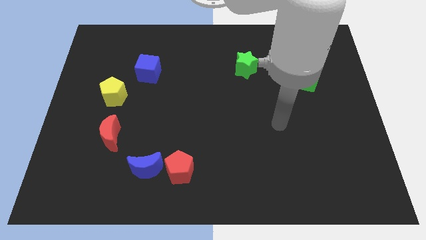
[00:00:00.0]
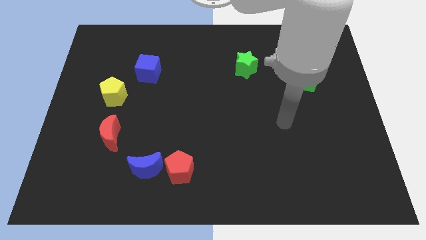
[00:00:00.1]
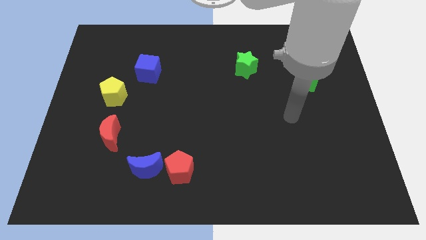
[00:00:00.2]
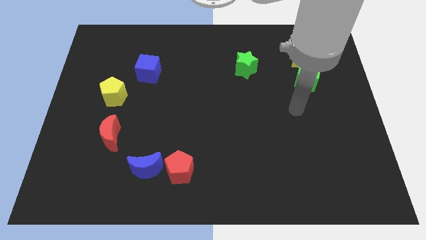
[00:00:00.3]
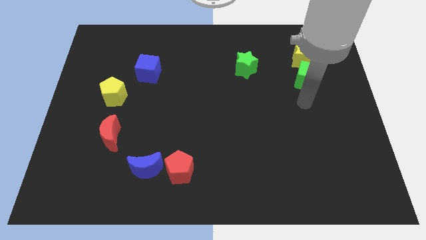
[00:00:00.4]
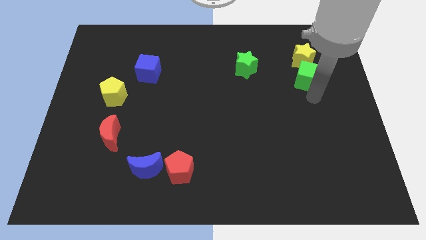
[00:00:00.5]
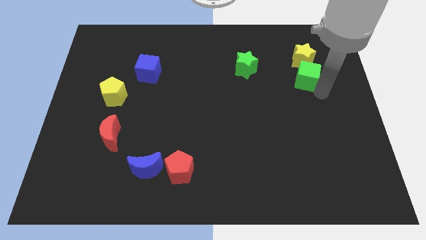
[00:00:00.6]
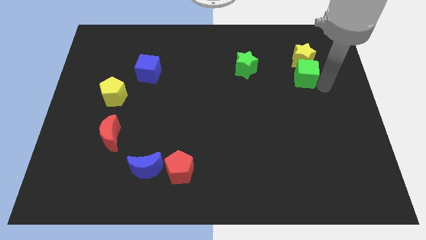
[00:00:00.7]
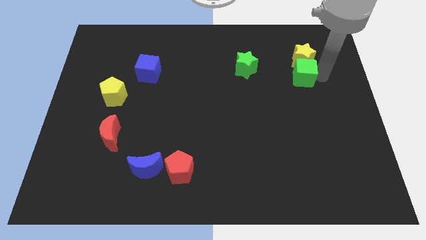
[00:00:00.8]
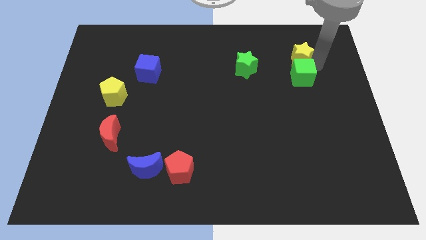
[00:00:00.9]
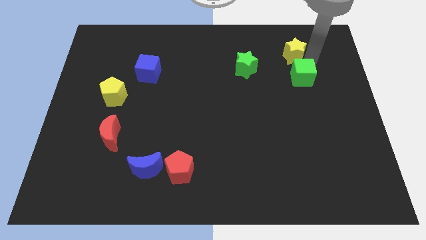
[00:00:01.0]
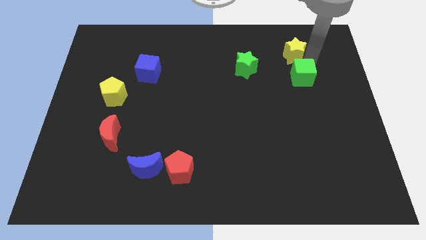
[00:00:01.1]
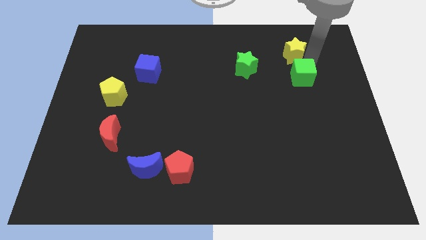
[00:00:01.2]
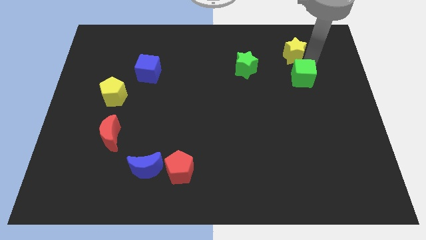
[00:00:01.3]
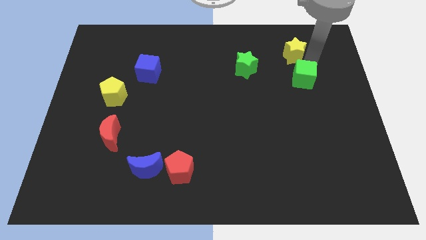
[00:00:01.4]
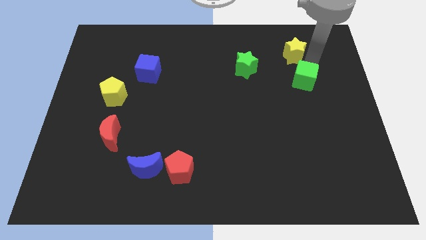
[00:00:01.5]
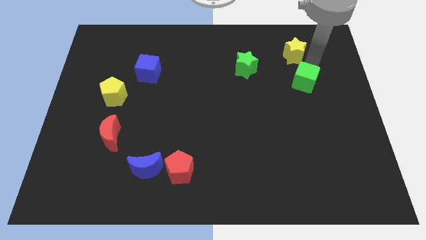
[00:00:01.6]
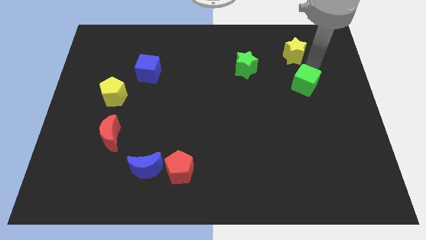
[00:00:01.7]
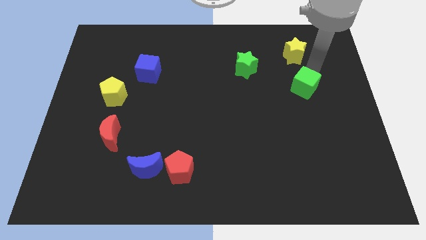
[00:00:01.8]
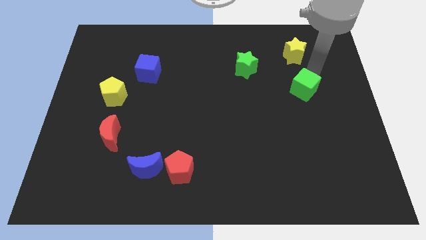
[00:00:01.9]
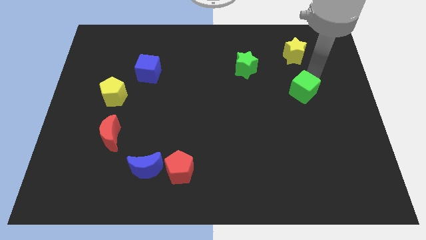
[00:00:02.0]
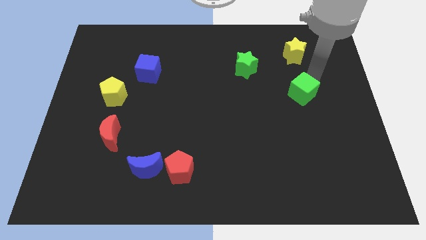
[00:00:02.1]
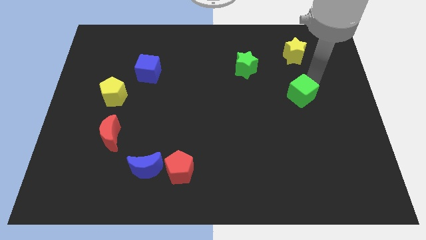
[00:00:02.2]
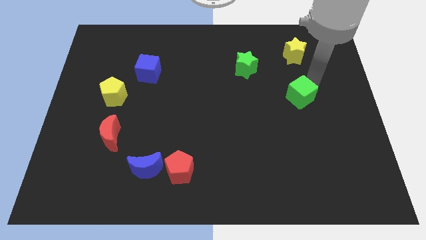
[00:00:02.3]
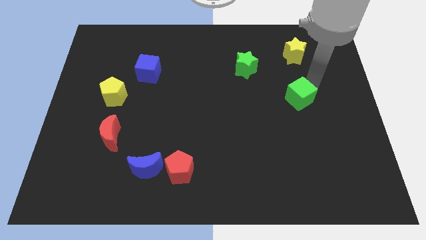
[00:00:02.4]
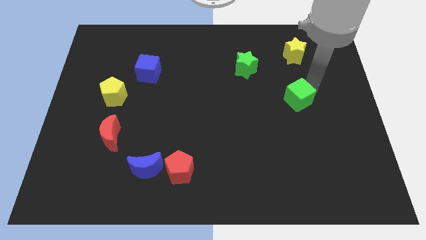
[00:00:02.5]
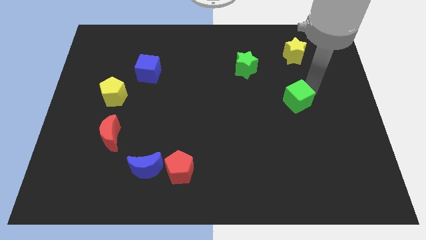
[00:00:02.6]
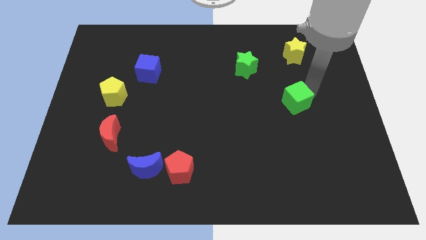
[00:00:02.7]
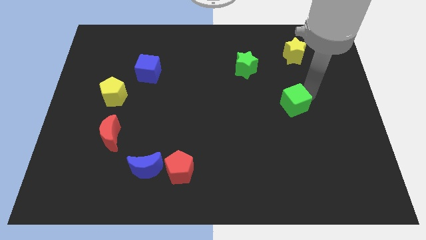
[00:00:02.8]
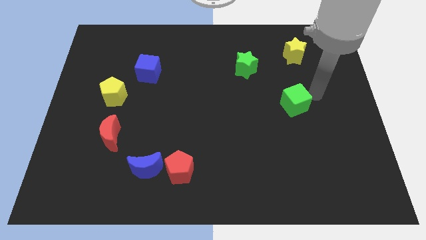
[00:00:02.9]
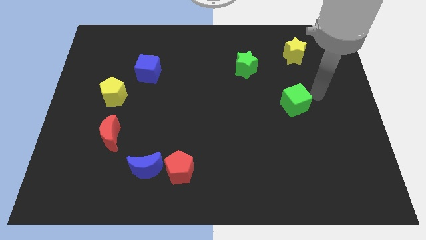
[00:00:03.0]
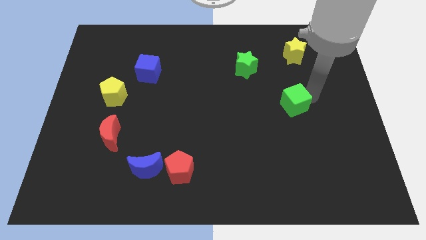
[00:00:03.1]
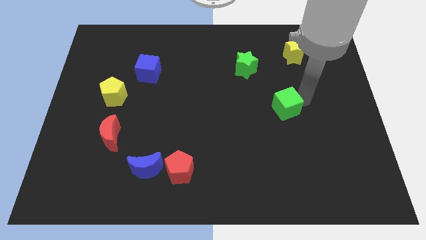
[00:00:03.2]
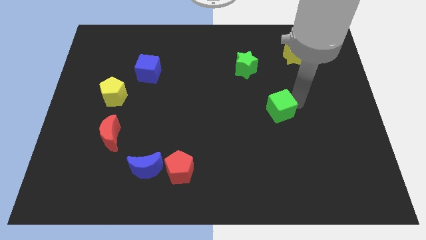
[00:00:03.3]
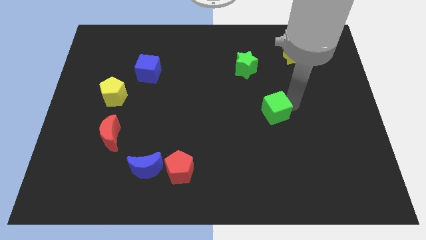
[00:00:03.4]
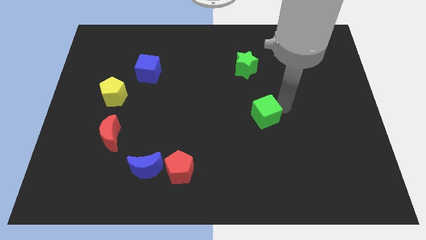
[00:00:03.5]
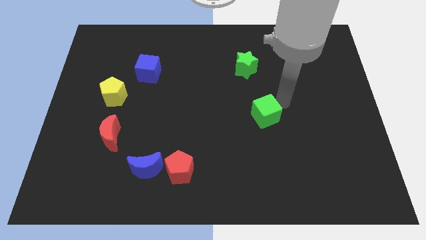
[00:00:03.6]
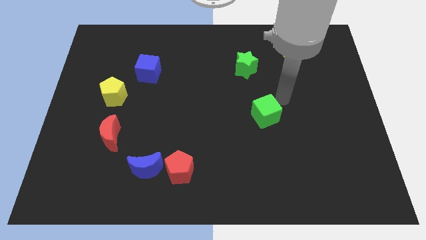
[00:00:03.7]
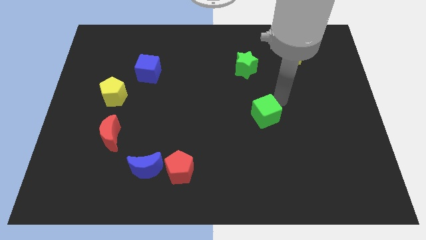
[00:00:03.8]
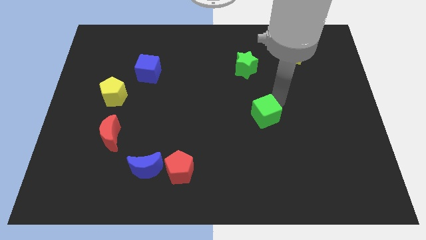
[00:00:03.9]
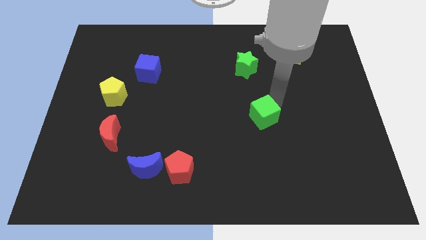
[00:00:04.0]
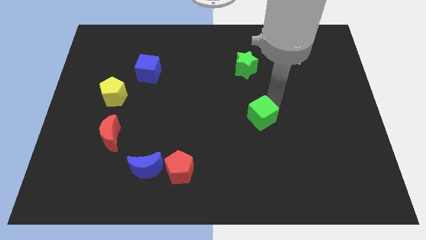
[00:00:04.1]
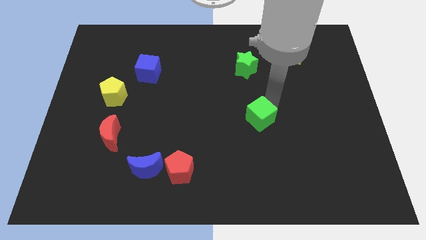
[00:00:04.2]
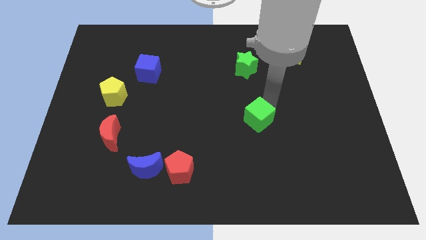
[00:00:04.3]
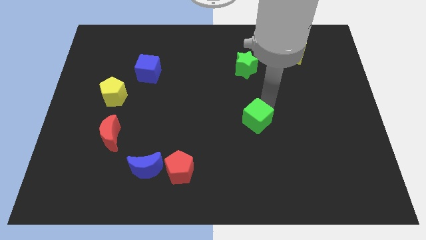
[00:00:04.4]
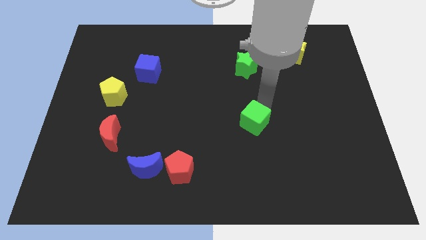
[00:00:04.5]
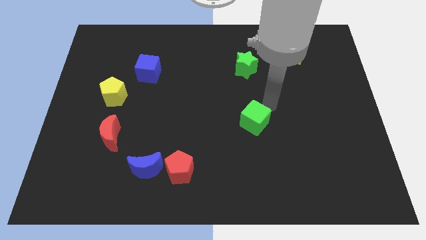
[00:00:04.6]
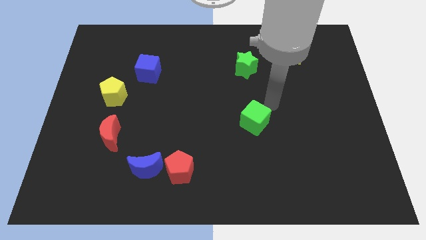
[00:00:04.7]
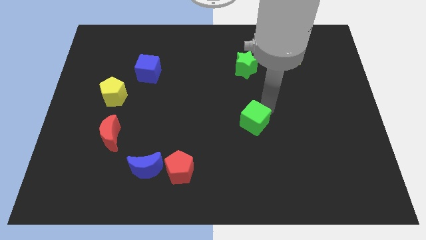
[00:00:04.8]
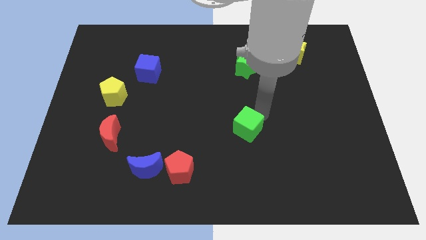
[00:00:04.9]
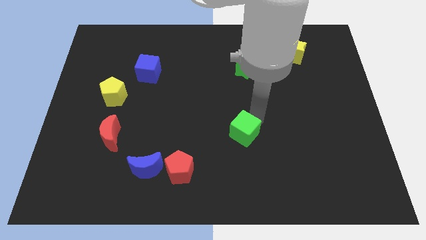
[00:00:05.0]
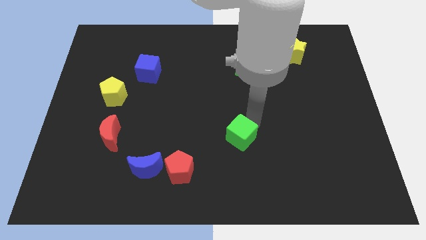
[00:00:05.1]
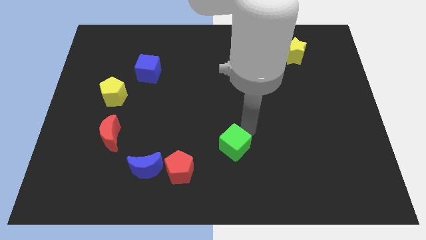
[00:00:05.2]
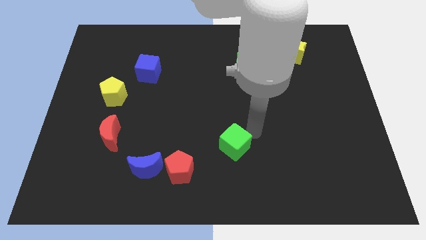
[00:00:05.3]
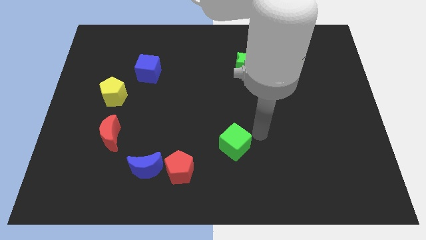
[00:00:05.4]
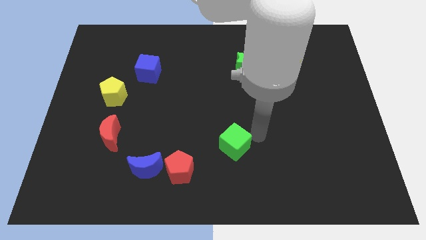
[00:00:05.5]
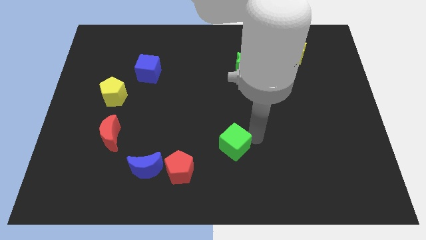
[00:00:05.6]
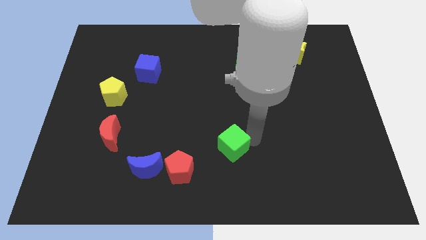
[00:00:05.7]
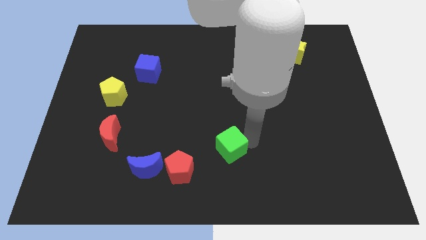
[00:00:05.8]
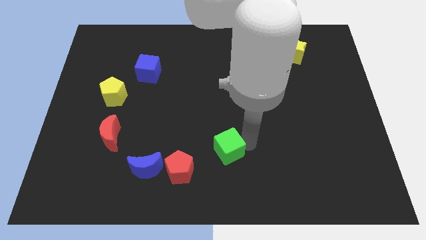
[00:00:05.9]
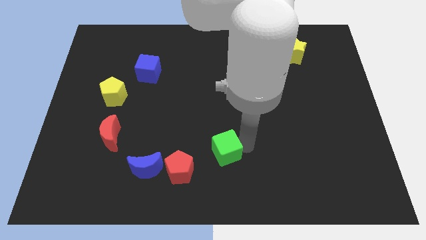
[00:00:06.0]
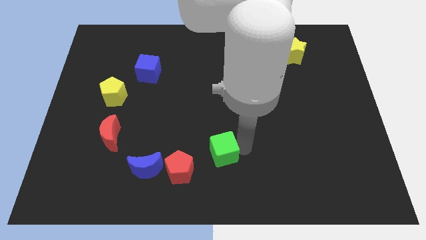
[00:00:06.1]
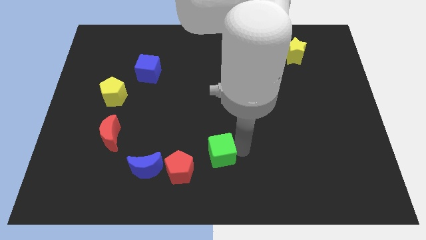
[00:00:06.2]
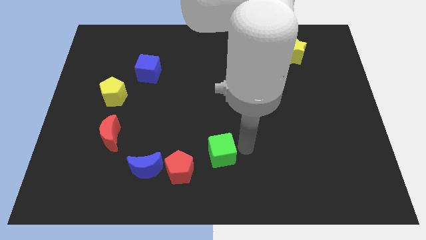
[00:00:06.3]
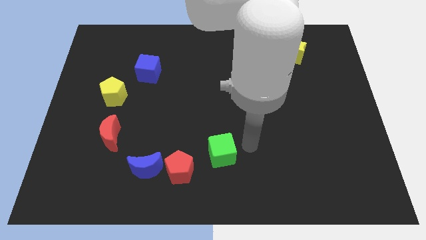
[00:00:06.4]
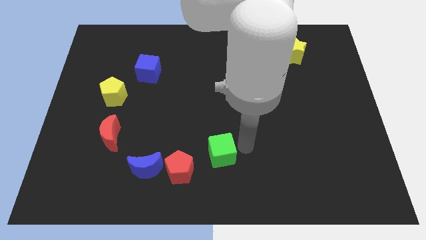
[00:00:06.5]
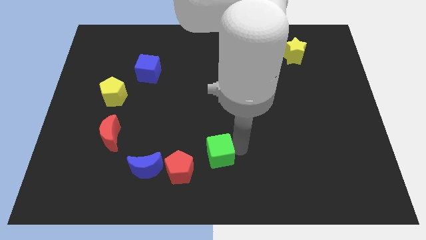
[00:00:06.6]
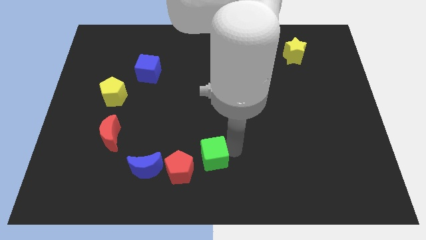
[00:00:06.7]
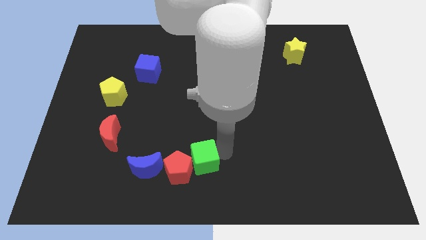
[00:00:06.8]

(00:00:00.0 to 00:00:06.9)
put the green cube towards the red pentagon

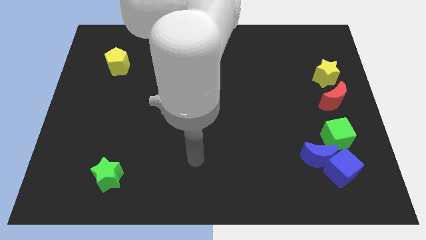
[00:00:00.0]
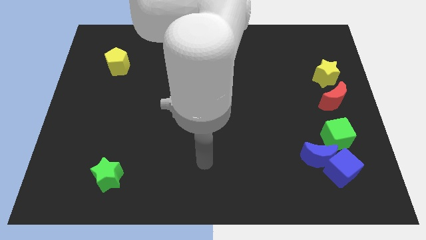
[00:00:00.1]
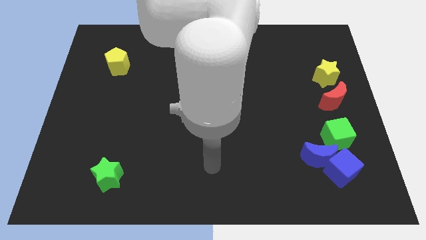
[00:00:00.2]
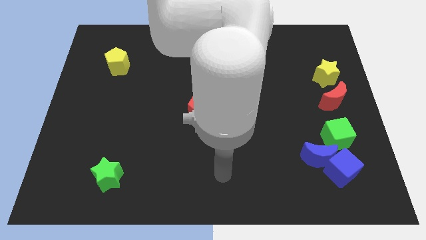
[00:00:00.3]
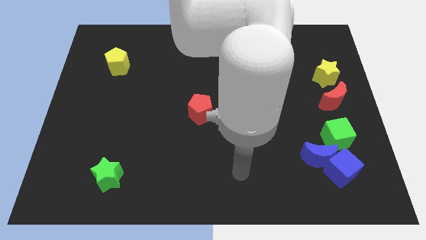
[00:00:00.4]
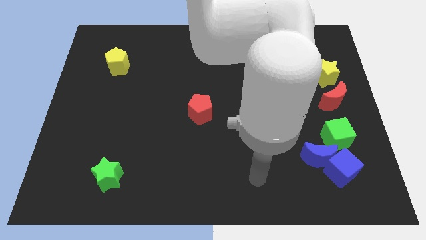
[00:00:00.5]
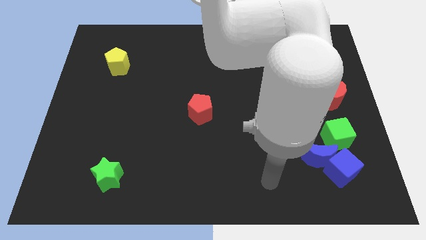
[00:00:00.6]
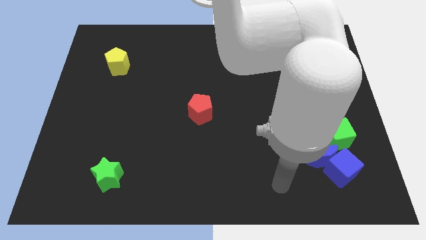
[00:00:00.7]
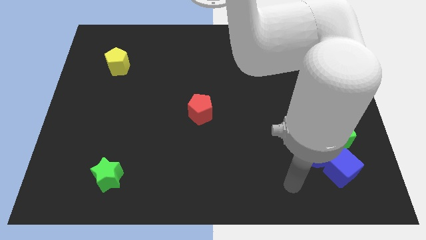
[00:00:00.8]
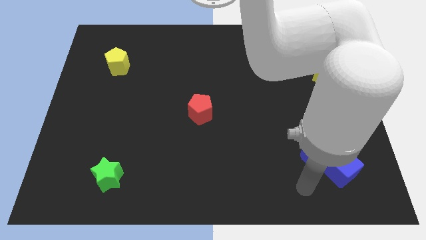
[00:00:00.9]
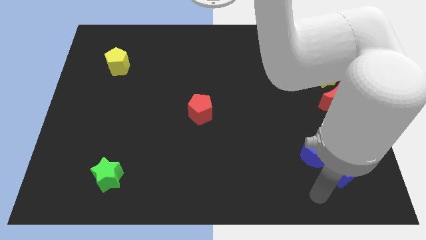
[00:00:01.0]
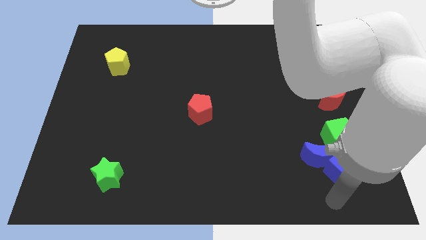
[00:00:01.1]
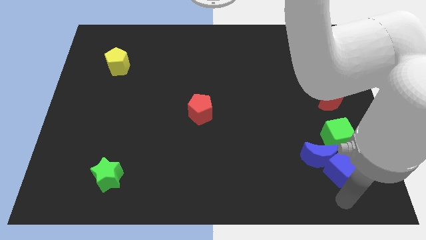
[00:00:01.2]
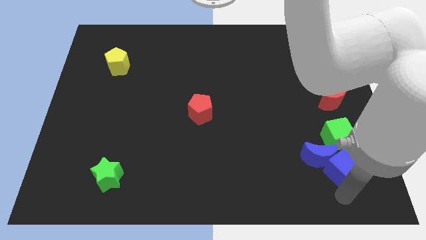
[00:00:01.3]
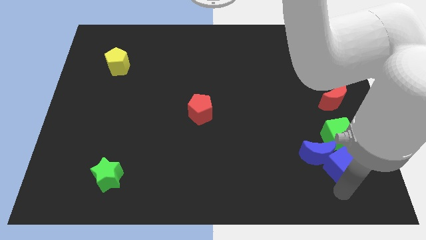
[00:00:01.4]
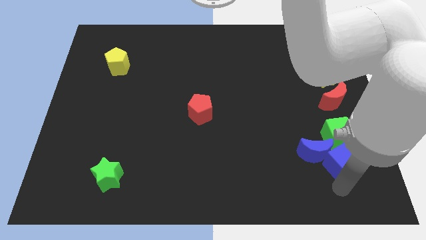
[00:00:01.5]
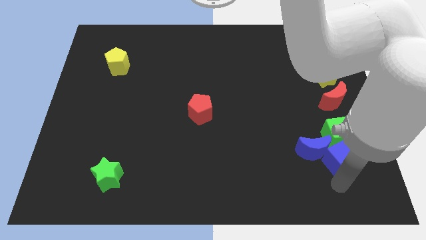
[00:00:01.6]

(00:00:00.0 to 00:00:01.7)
move the blue cube to the green cube
